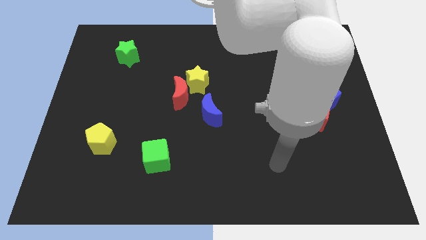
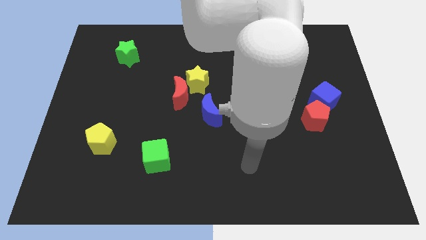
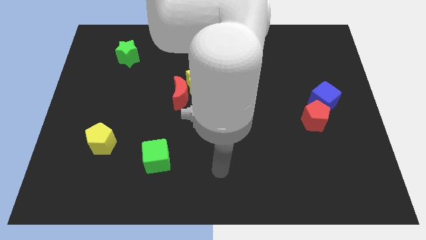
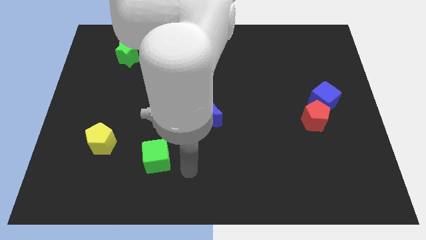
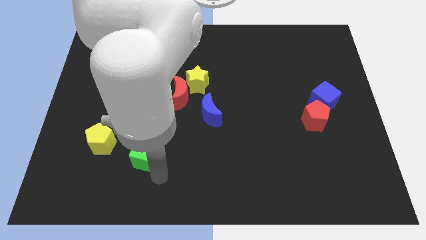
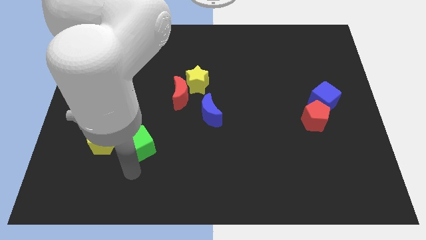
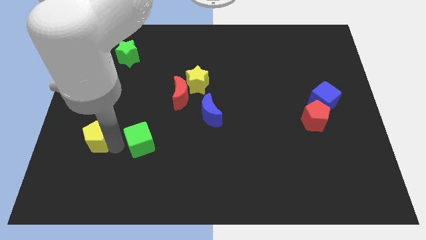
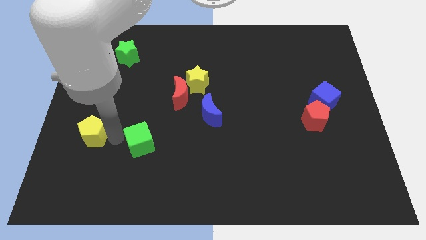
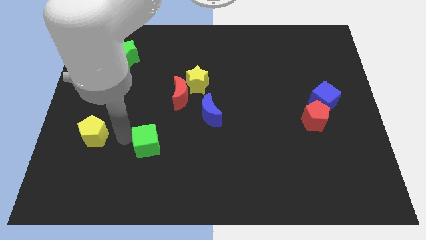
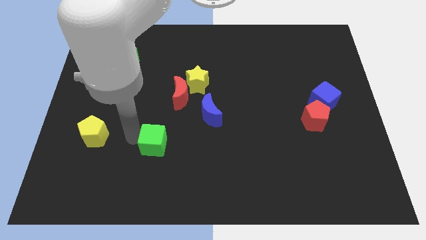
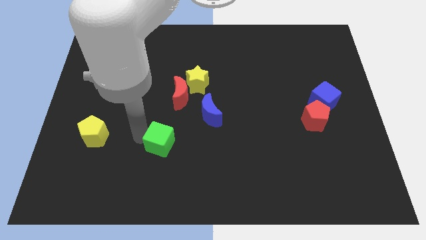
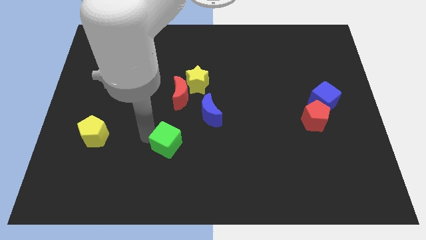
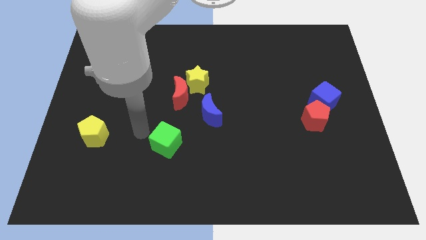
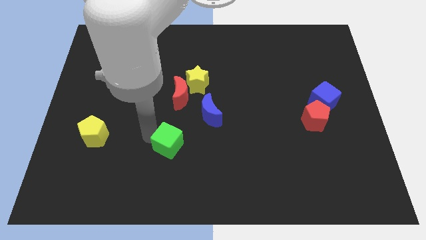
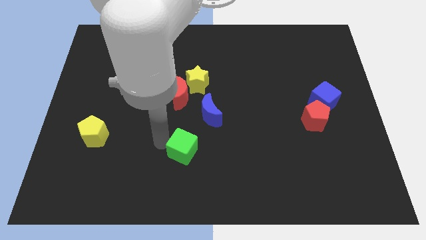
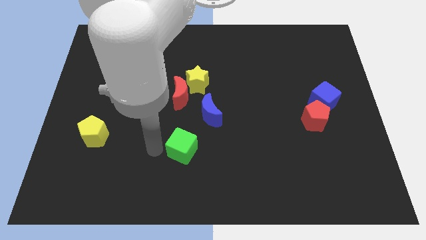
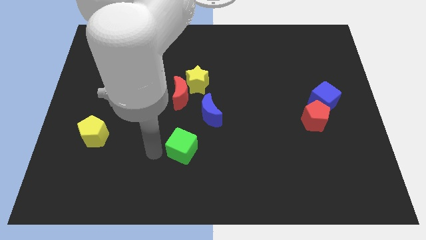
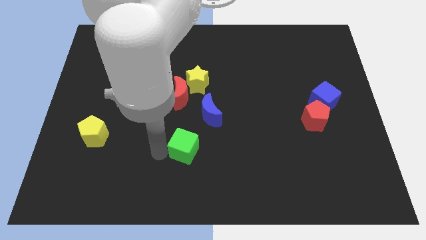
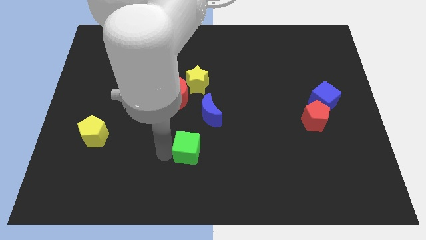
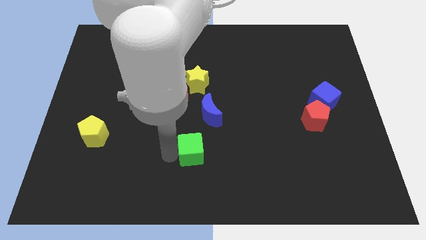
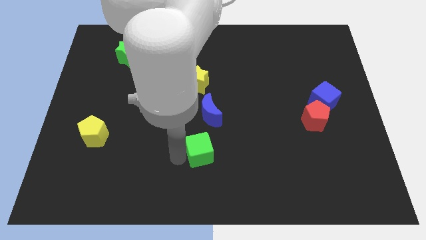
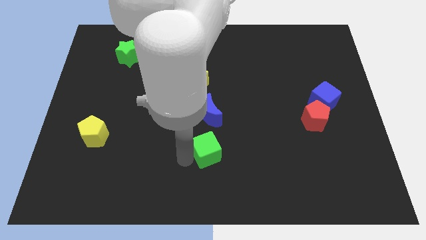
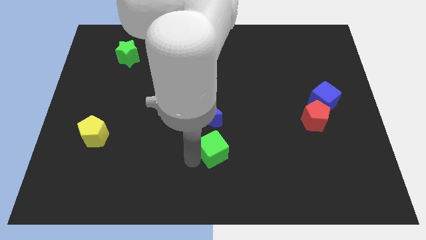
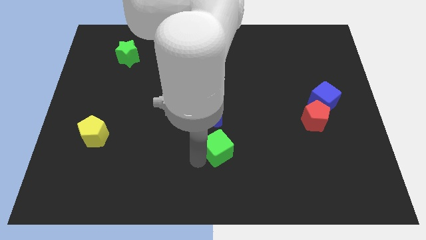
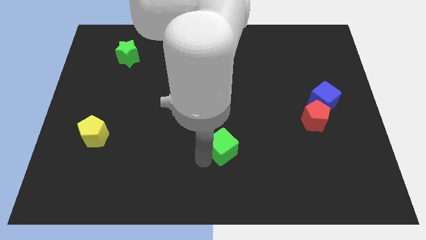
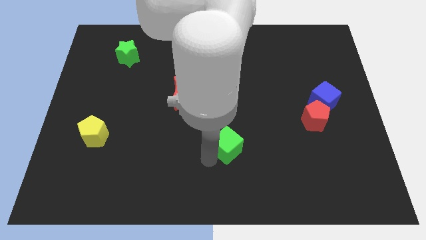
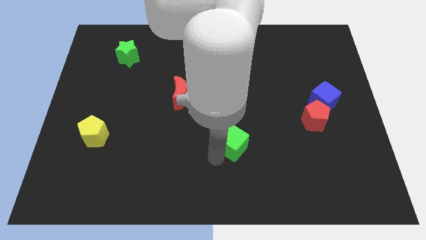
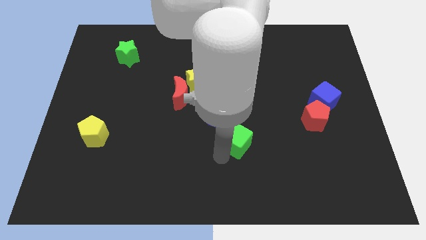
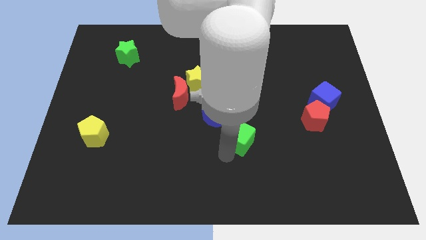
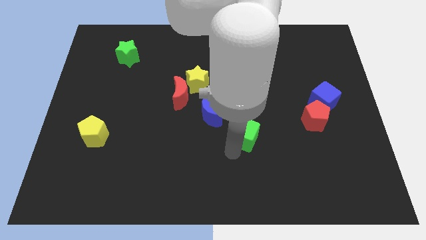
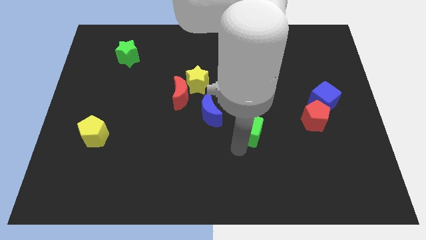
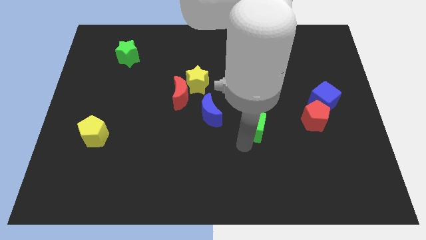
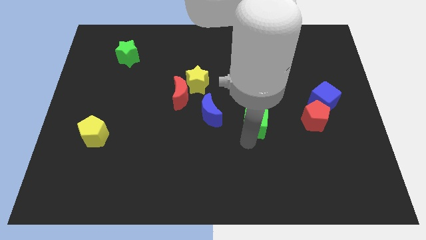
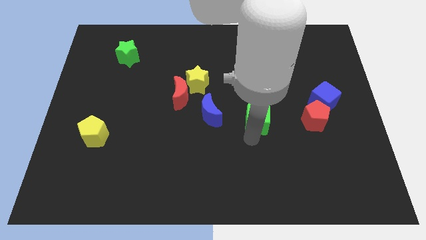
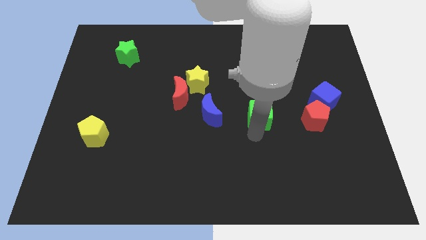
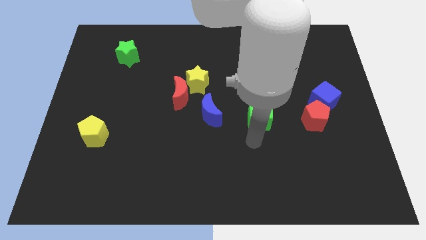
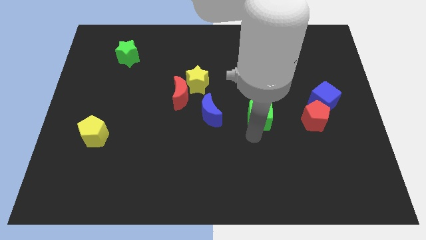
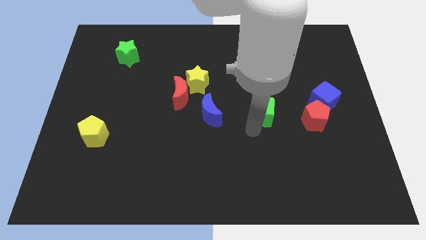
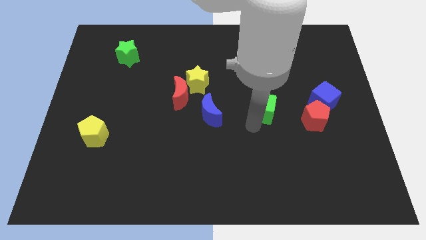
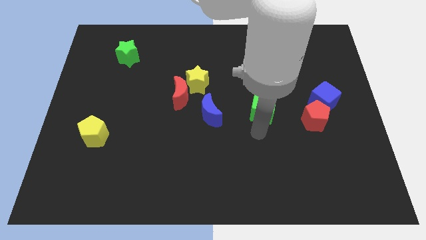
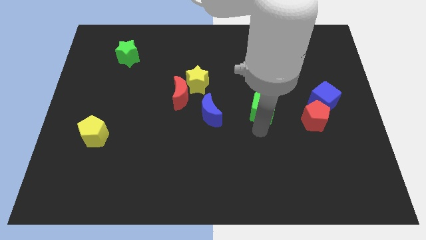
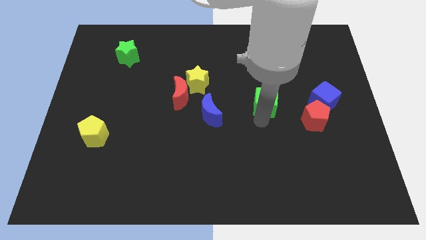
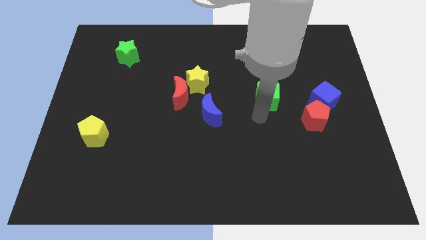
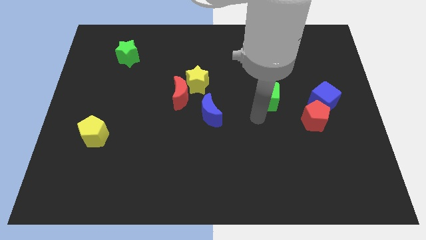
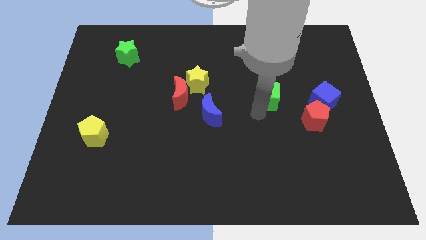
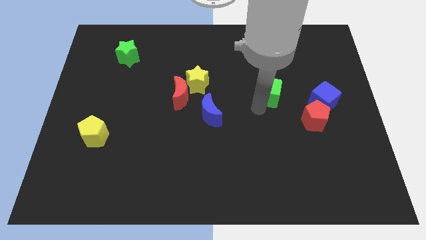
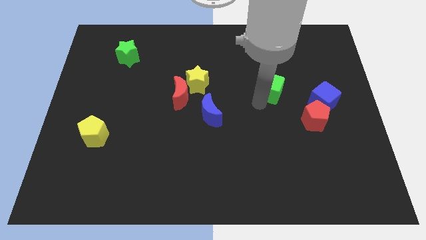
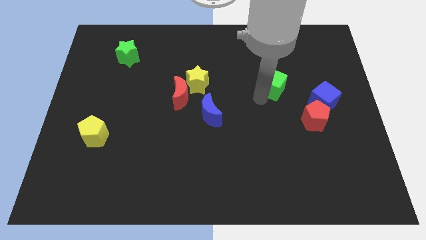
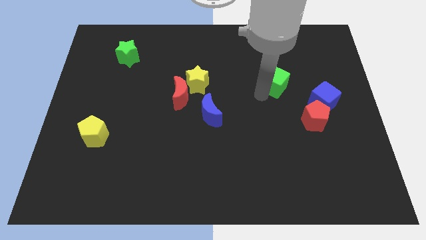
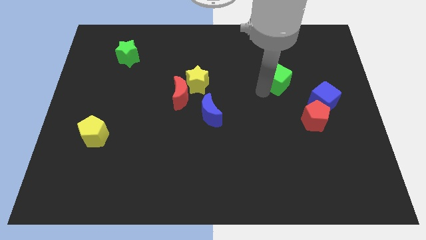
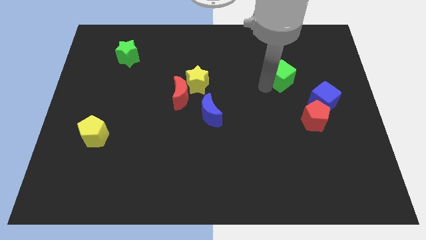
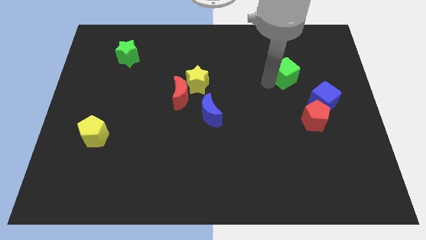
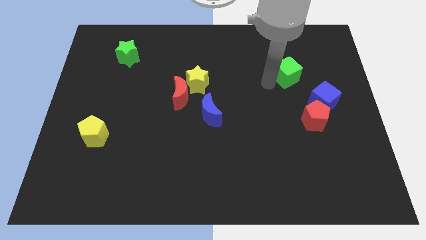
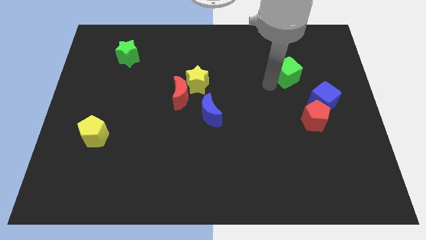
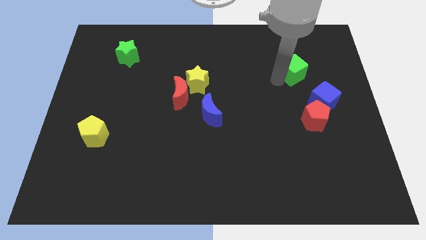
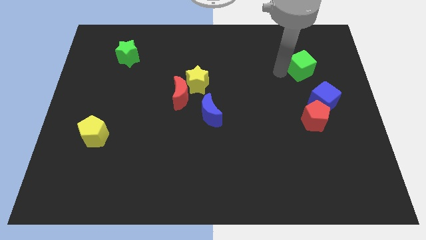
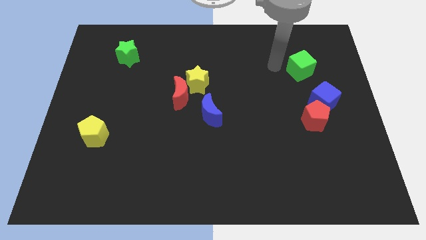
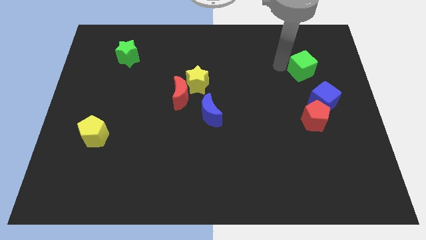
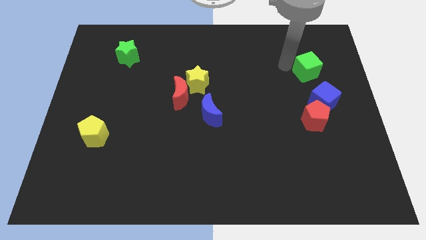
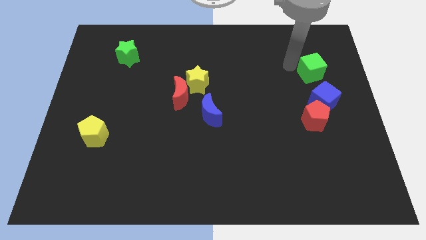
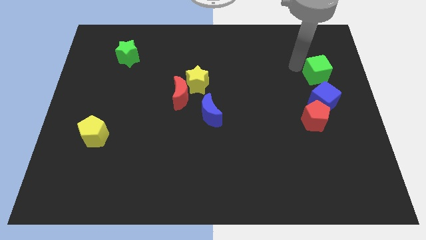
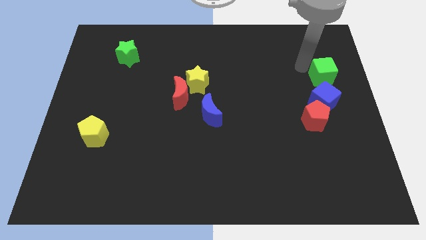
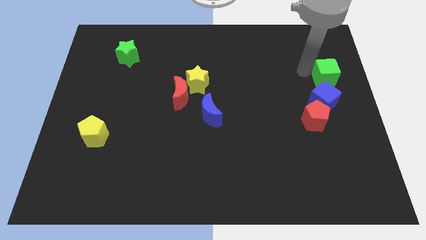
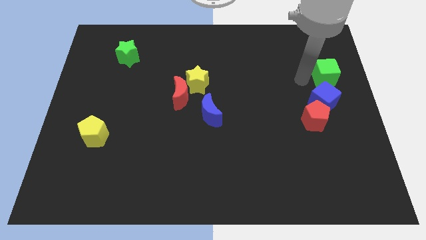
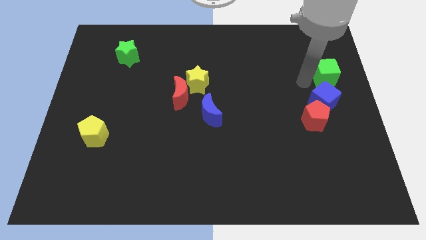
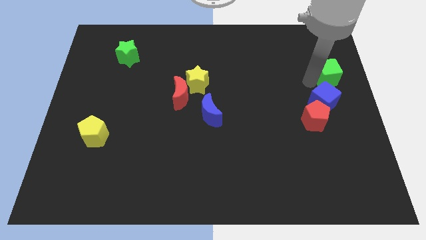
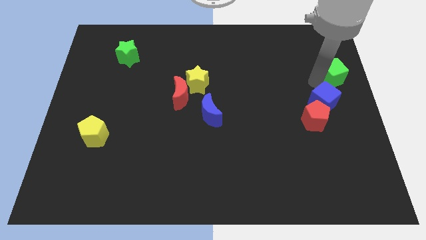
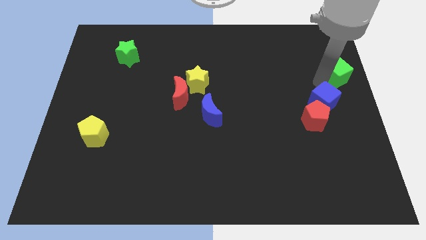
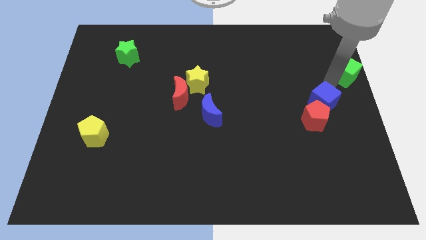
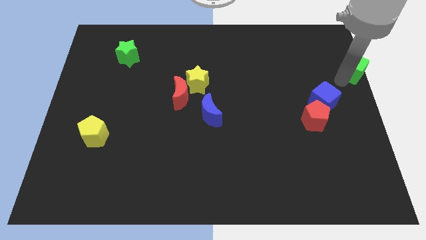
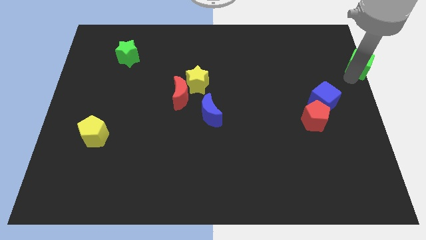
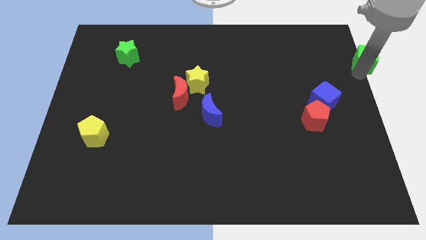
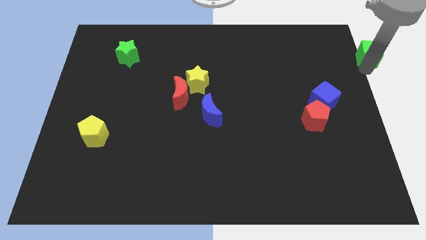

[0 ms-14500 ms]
slide the green cube to the top right of the board
